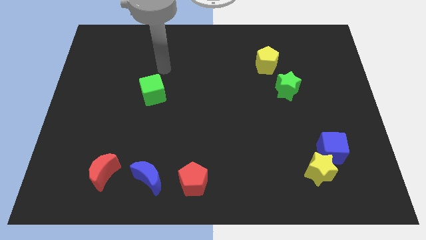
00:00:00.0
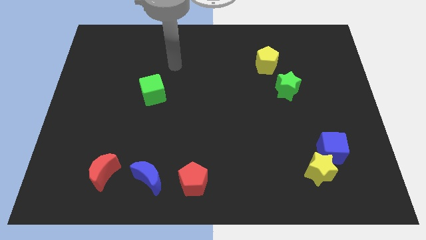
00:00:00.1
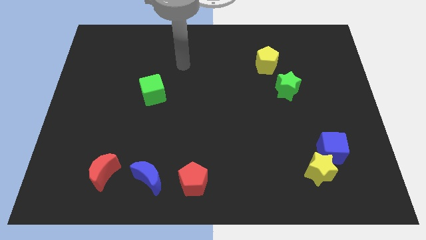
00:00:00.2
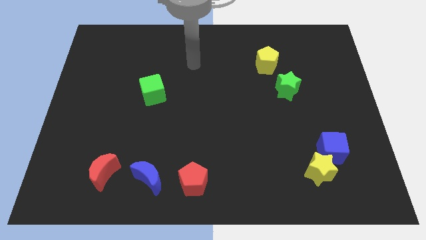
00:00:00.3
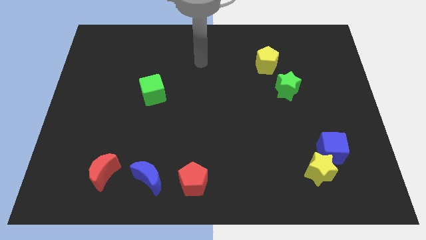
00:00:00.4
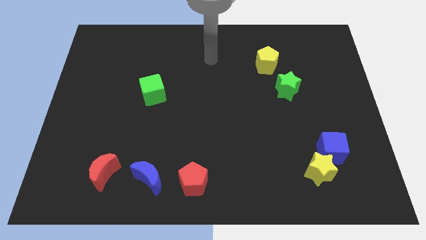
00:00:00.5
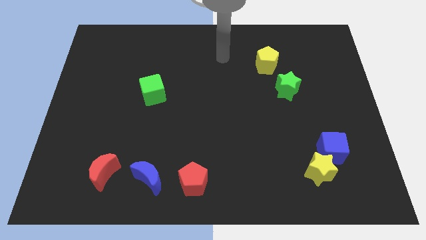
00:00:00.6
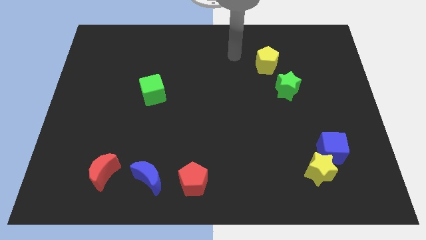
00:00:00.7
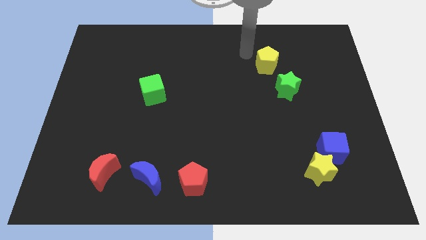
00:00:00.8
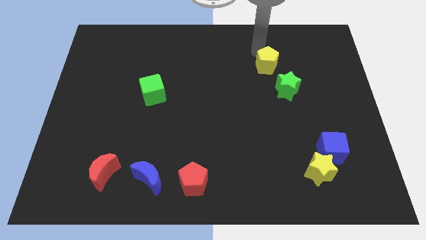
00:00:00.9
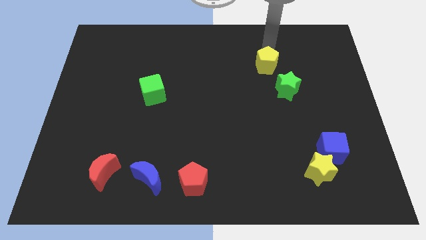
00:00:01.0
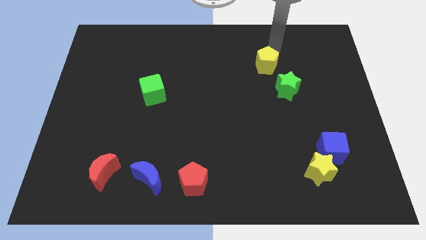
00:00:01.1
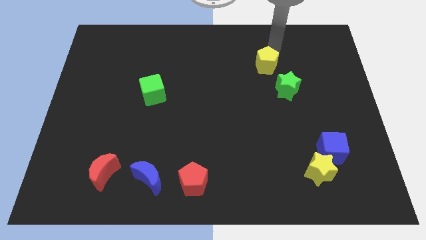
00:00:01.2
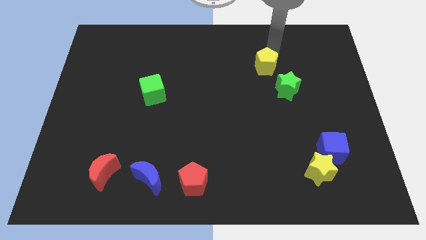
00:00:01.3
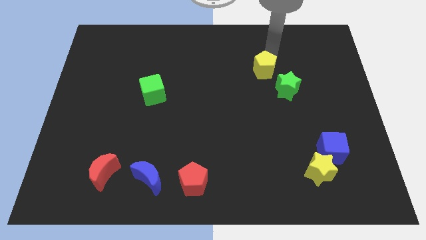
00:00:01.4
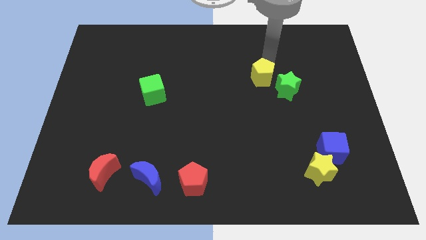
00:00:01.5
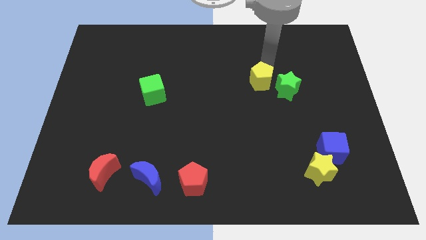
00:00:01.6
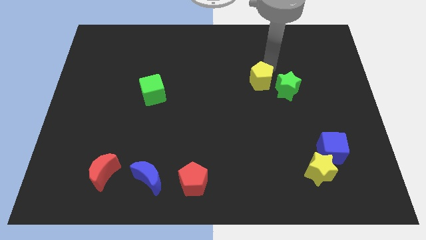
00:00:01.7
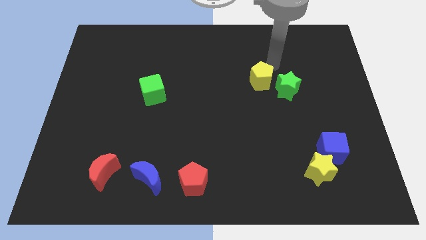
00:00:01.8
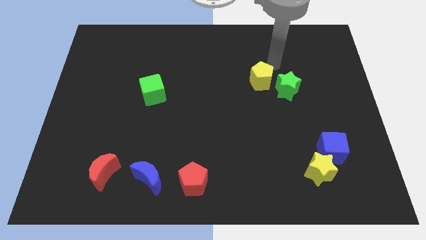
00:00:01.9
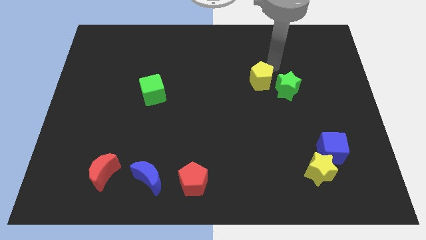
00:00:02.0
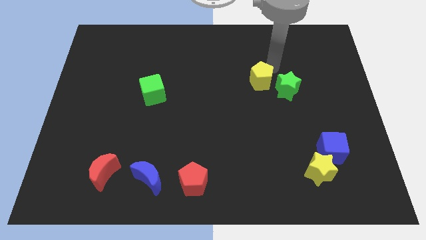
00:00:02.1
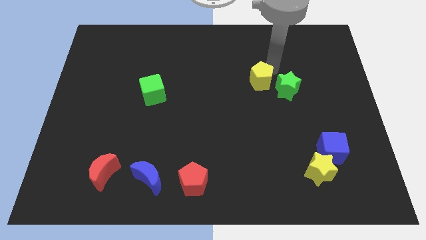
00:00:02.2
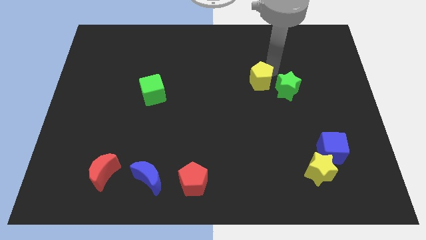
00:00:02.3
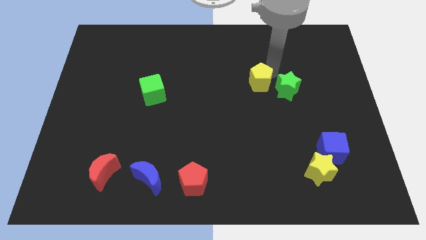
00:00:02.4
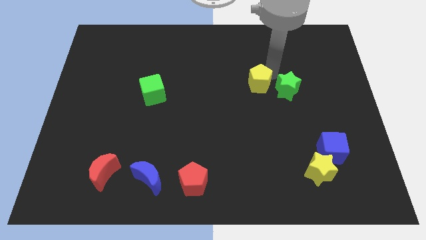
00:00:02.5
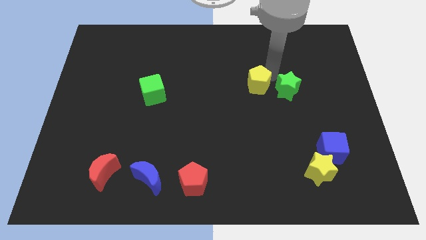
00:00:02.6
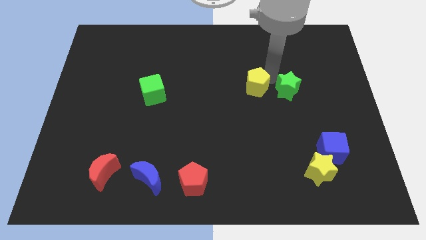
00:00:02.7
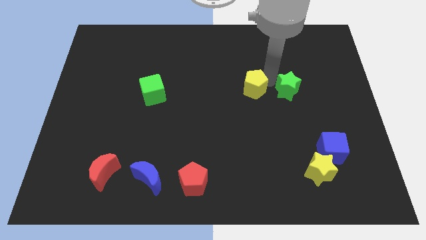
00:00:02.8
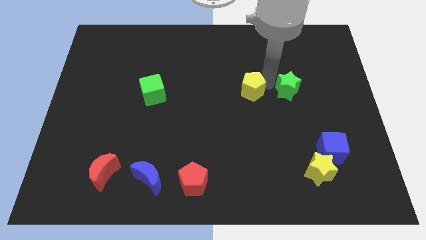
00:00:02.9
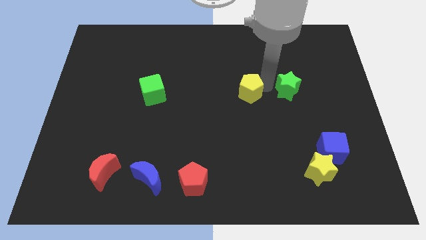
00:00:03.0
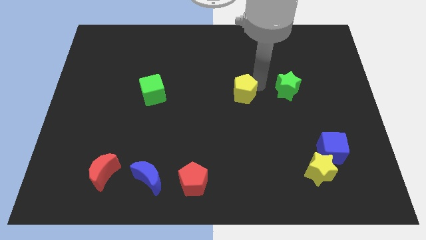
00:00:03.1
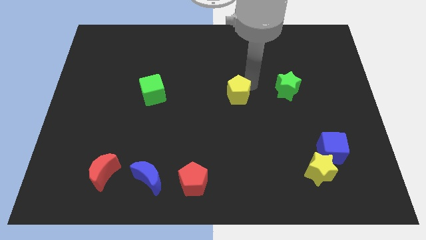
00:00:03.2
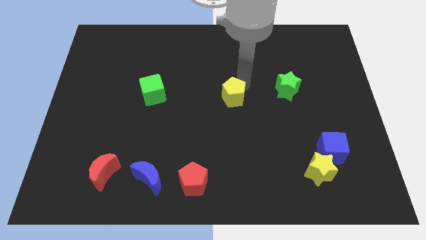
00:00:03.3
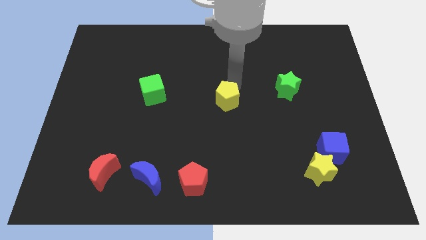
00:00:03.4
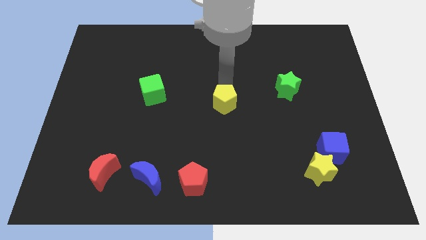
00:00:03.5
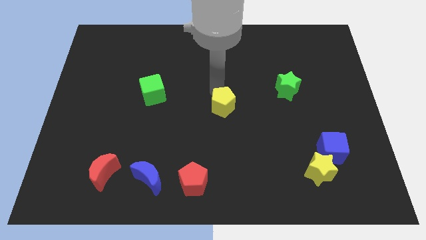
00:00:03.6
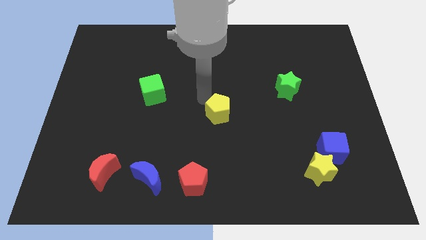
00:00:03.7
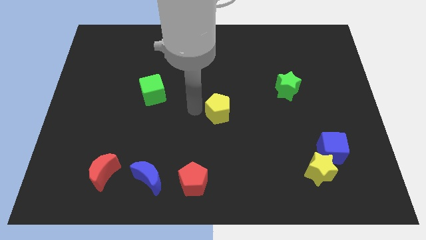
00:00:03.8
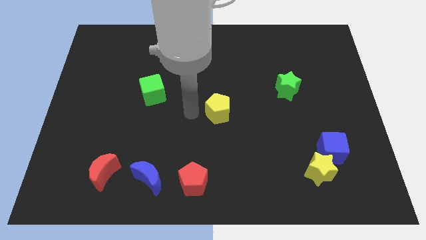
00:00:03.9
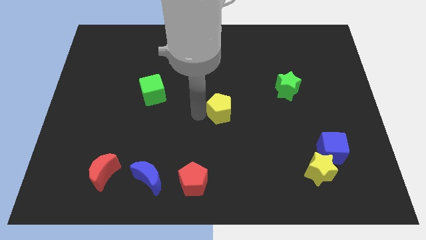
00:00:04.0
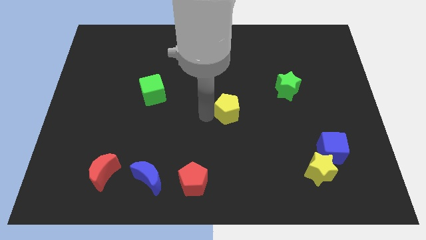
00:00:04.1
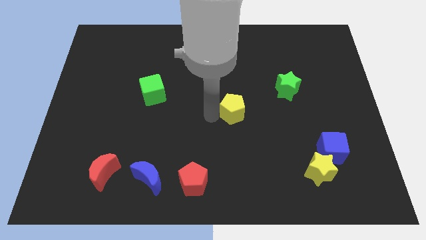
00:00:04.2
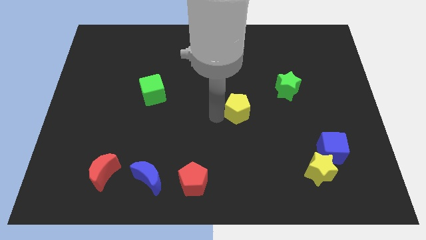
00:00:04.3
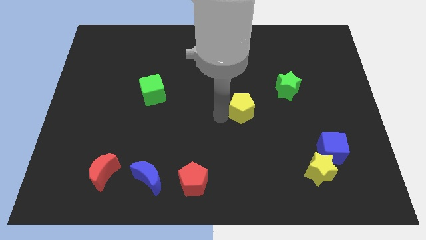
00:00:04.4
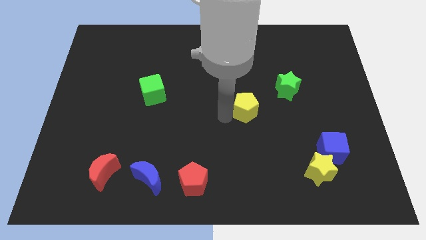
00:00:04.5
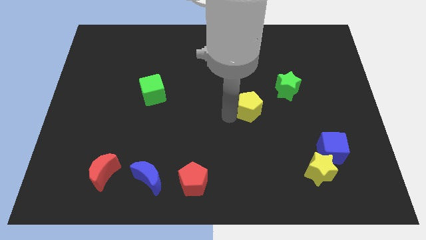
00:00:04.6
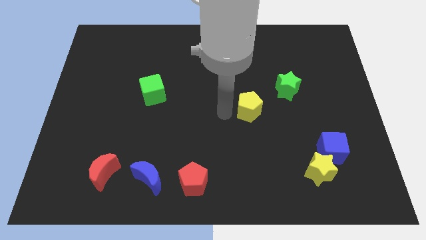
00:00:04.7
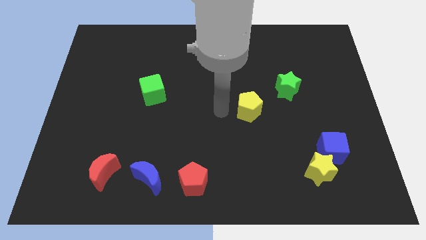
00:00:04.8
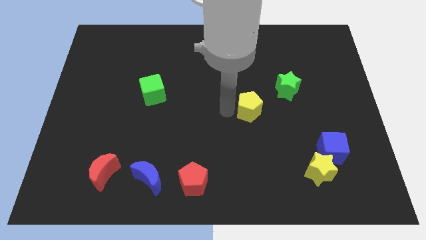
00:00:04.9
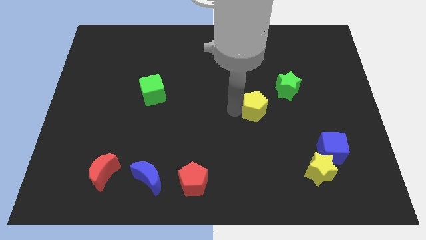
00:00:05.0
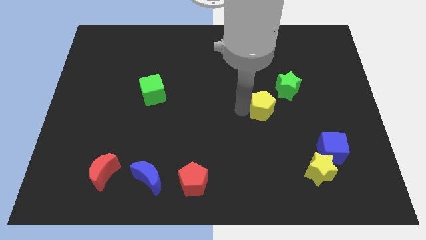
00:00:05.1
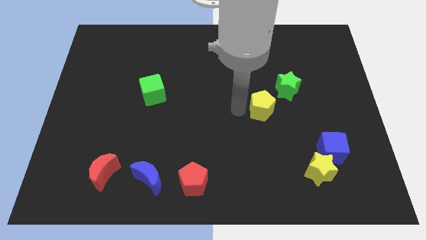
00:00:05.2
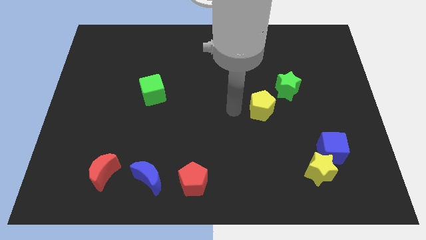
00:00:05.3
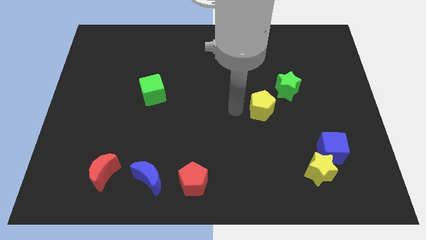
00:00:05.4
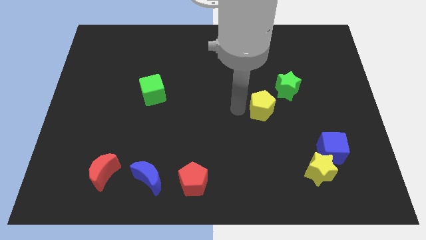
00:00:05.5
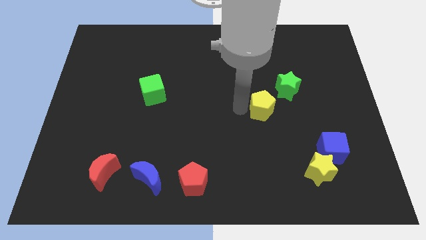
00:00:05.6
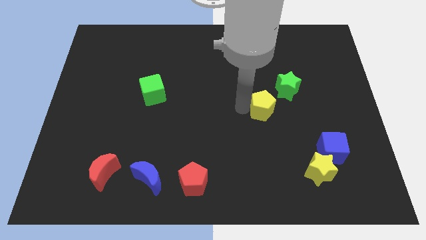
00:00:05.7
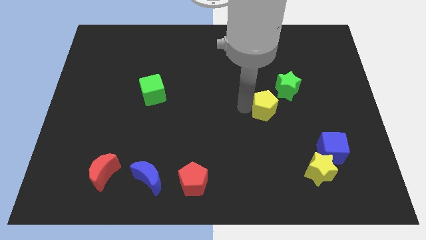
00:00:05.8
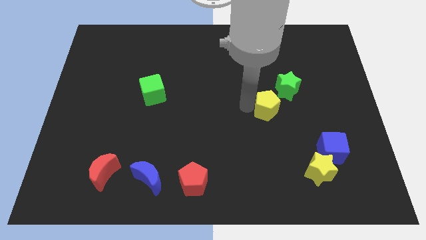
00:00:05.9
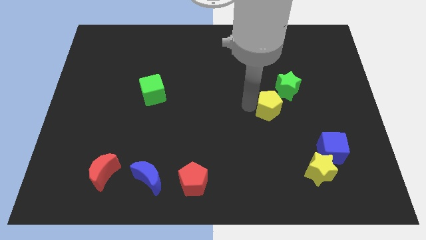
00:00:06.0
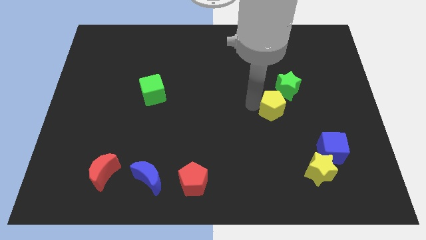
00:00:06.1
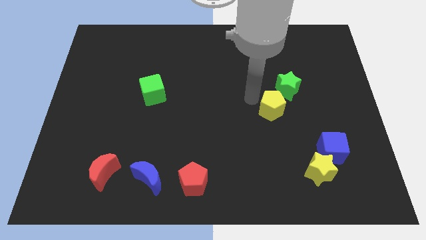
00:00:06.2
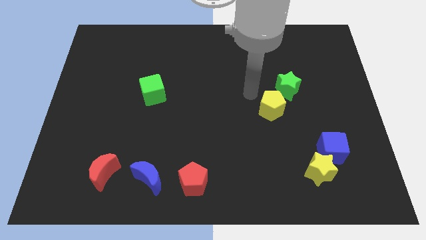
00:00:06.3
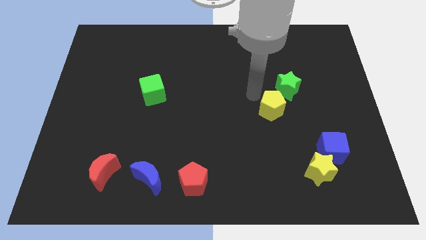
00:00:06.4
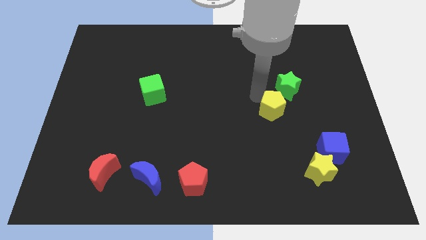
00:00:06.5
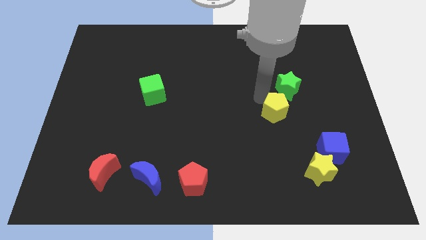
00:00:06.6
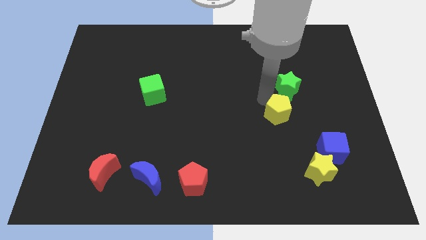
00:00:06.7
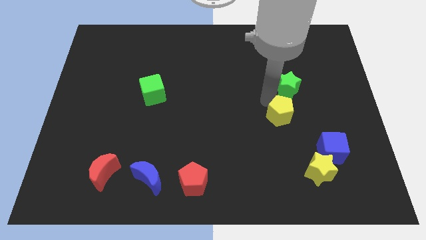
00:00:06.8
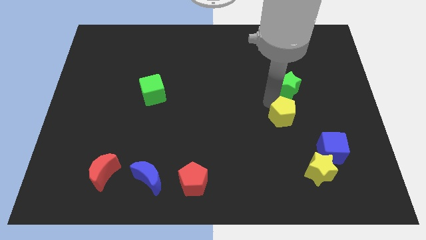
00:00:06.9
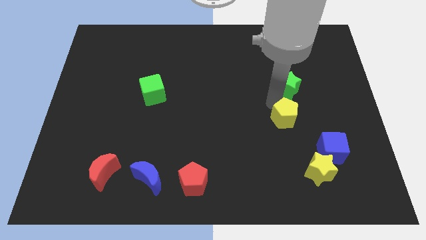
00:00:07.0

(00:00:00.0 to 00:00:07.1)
move the yellow pentagon to the top left of the blue cube
